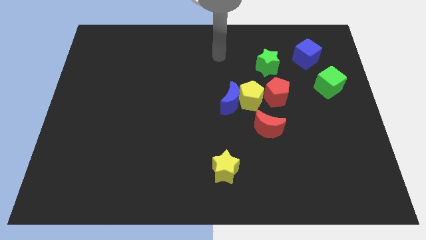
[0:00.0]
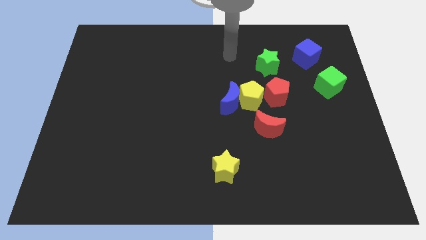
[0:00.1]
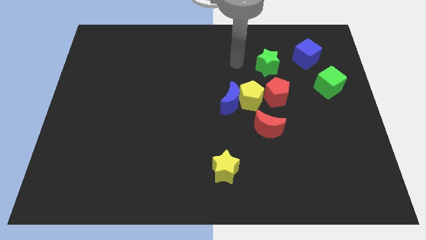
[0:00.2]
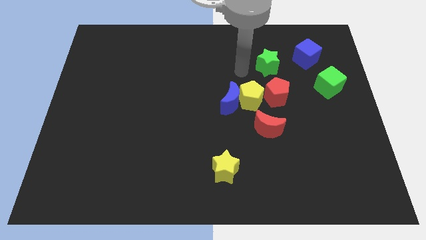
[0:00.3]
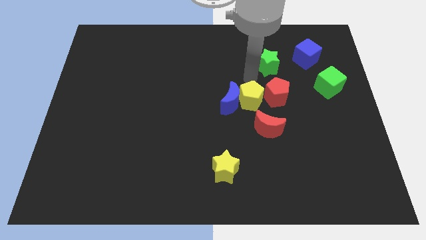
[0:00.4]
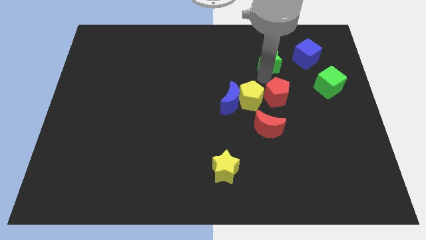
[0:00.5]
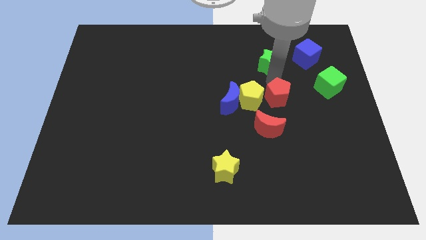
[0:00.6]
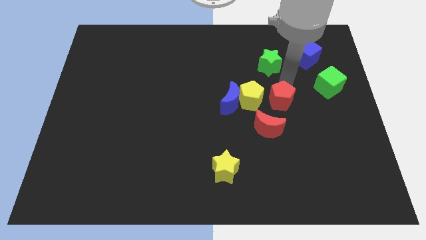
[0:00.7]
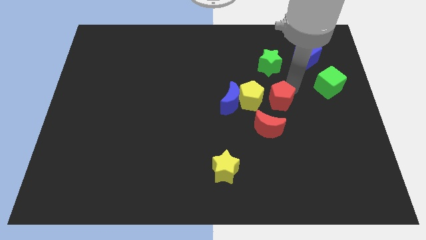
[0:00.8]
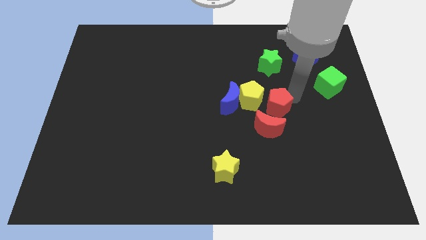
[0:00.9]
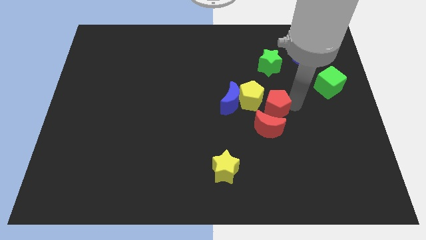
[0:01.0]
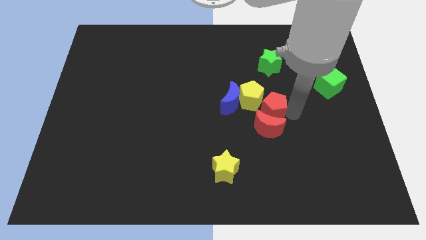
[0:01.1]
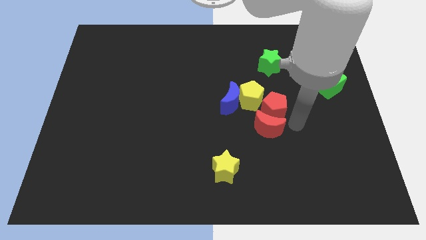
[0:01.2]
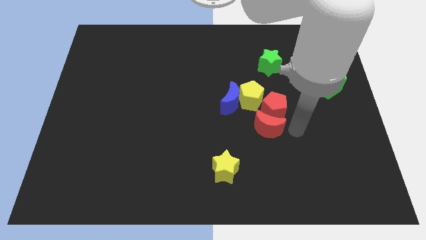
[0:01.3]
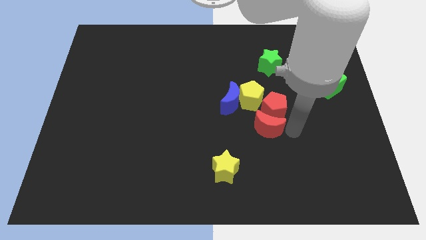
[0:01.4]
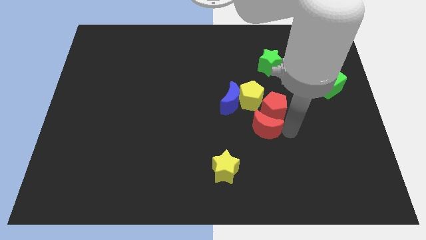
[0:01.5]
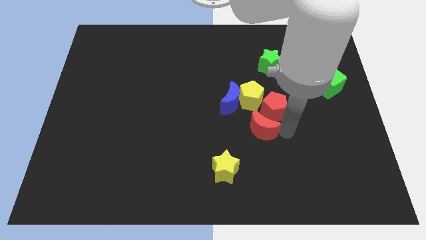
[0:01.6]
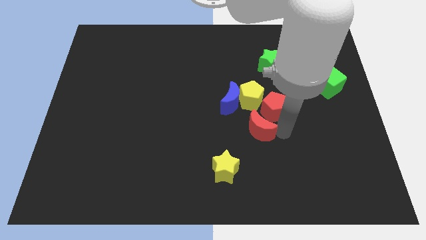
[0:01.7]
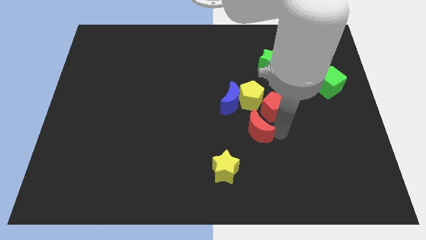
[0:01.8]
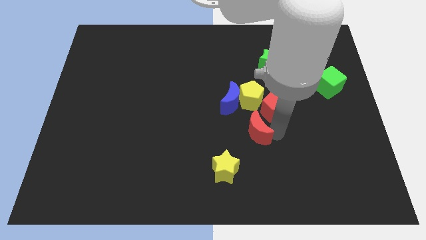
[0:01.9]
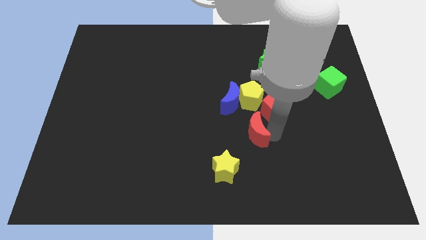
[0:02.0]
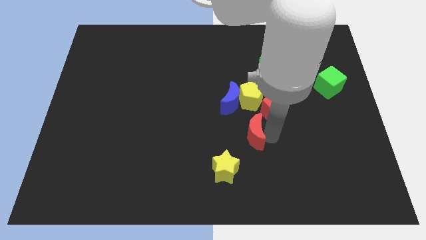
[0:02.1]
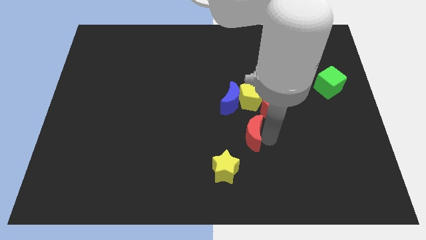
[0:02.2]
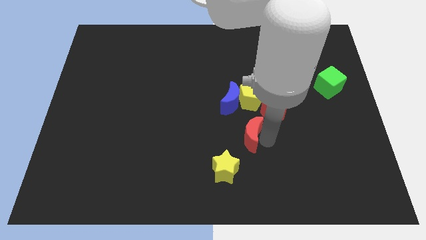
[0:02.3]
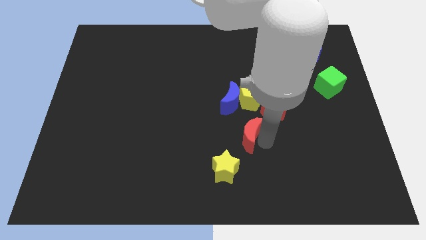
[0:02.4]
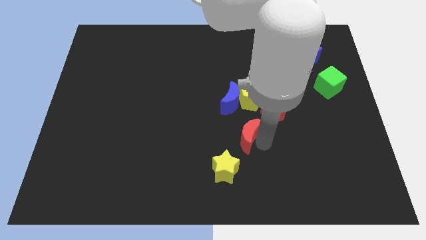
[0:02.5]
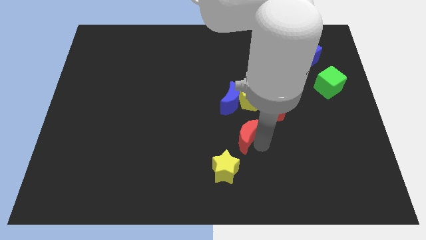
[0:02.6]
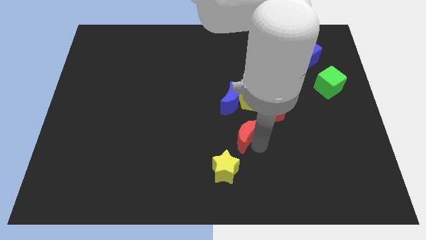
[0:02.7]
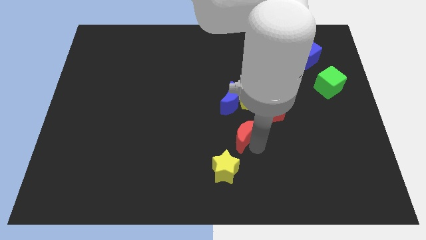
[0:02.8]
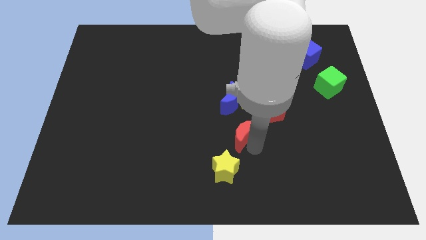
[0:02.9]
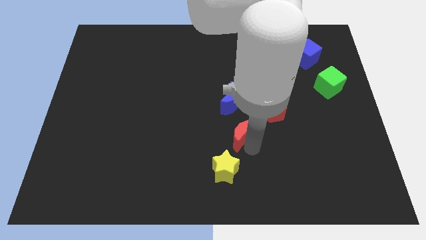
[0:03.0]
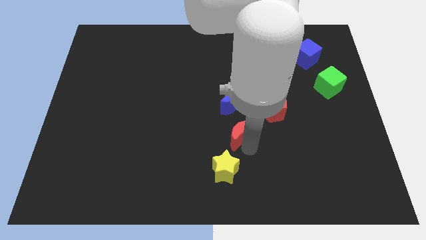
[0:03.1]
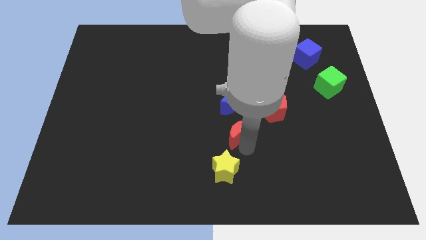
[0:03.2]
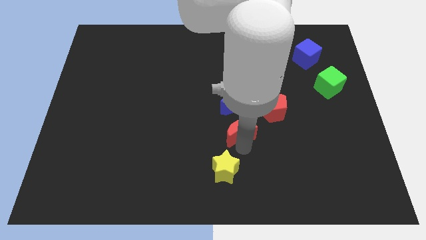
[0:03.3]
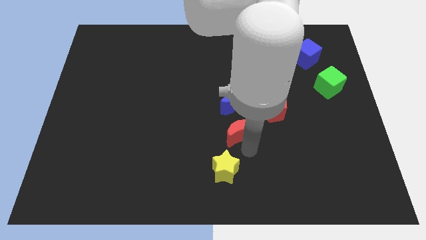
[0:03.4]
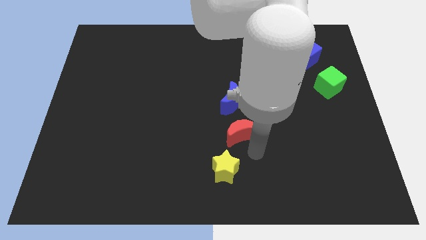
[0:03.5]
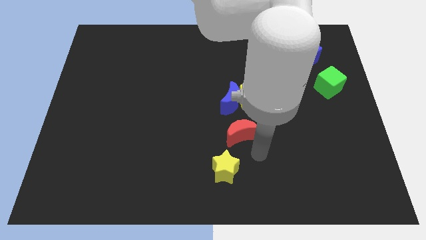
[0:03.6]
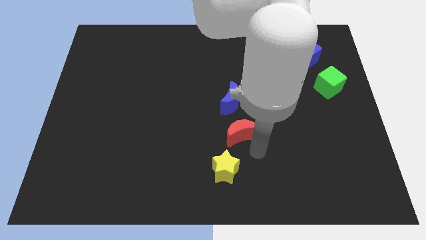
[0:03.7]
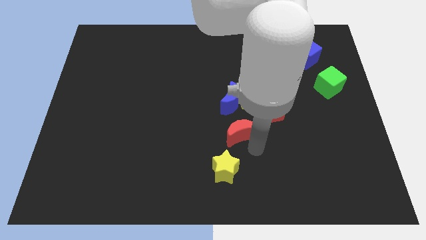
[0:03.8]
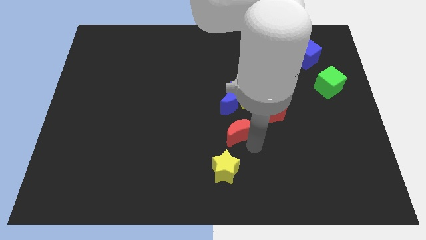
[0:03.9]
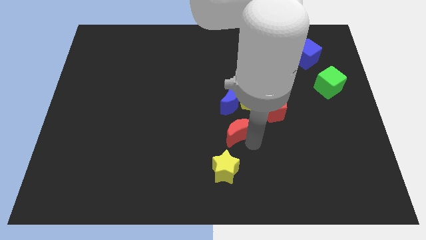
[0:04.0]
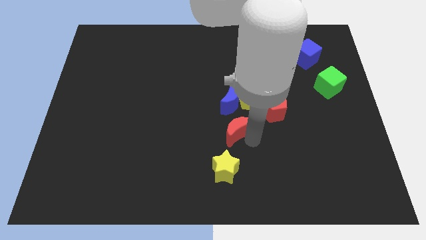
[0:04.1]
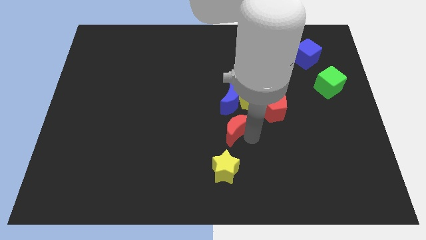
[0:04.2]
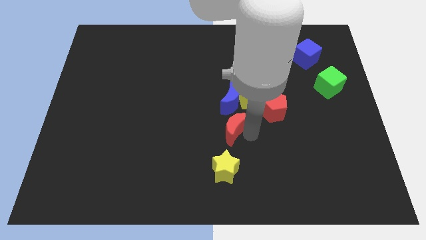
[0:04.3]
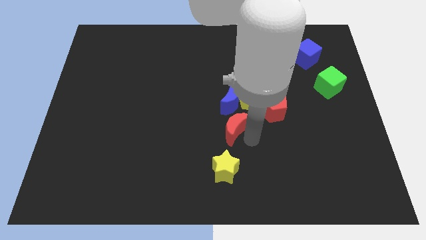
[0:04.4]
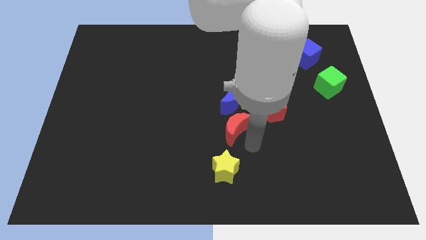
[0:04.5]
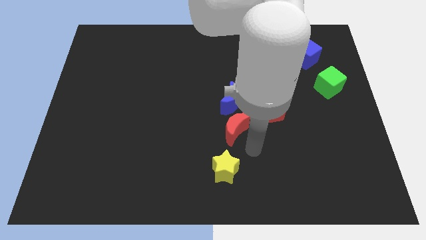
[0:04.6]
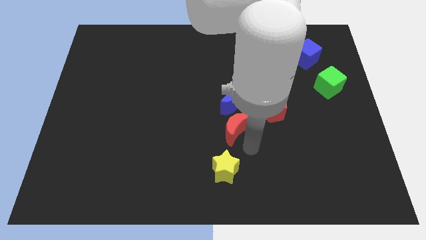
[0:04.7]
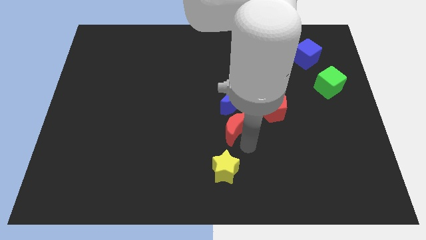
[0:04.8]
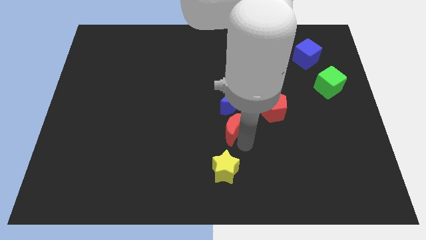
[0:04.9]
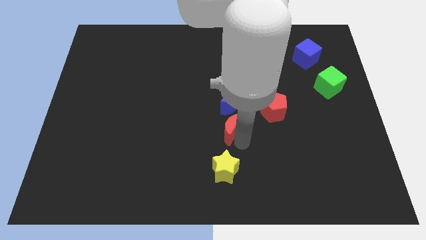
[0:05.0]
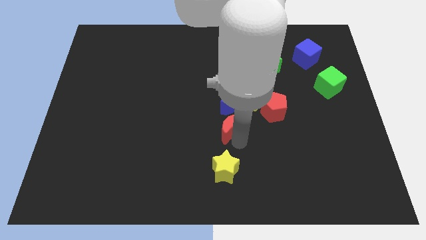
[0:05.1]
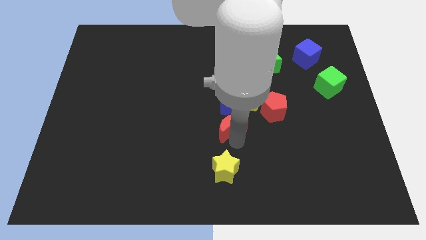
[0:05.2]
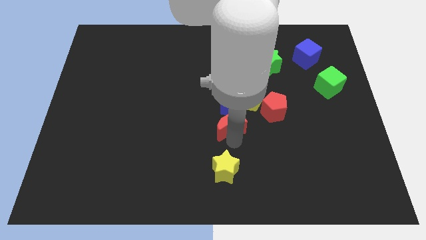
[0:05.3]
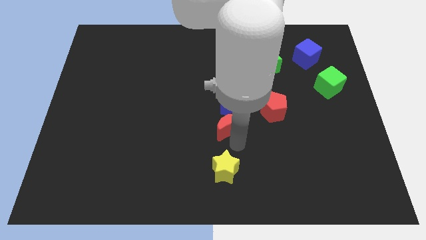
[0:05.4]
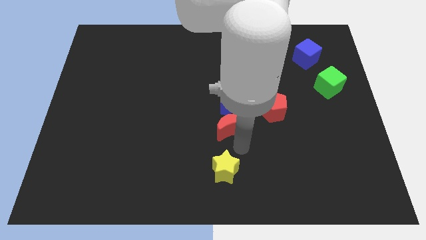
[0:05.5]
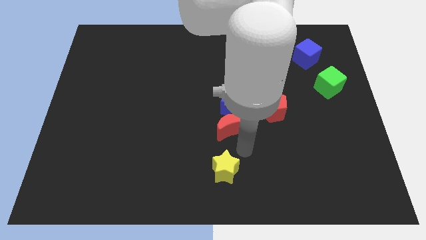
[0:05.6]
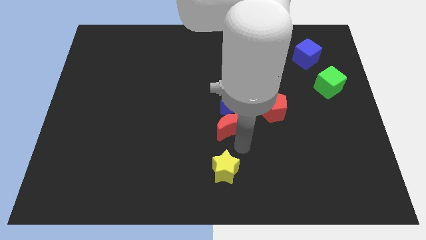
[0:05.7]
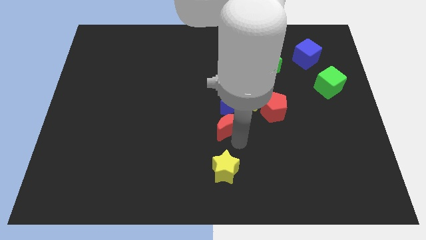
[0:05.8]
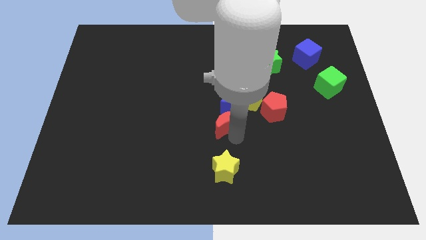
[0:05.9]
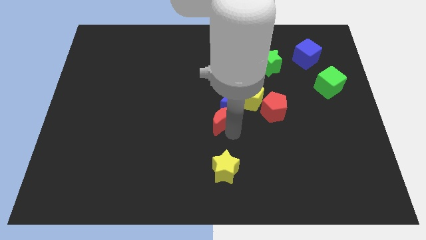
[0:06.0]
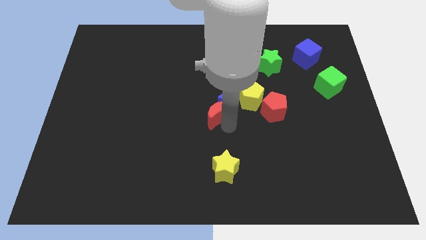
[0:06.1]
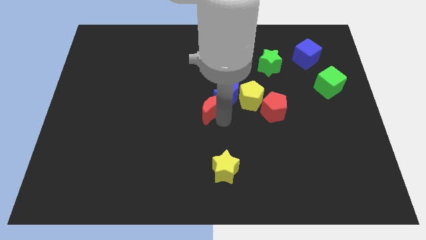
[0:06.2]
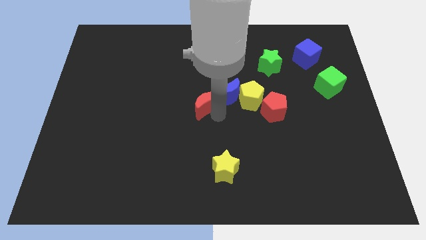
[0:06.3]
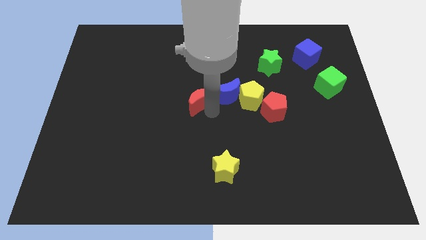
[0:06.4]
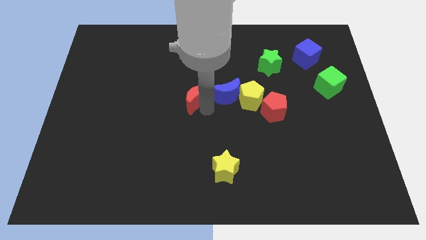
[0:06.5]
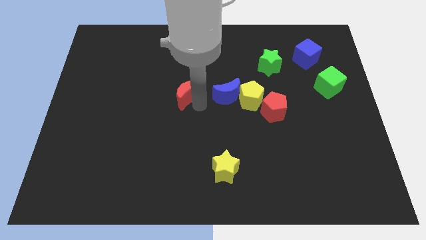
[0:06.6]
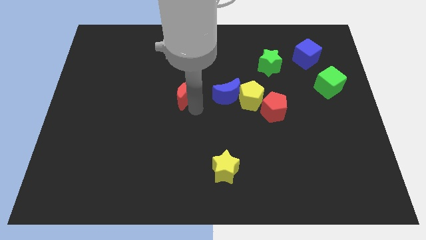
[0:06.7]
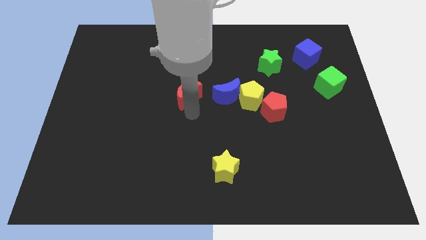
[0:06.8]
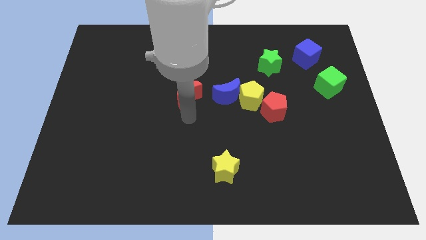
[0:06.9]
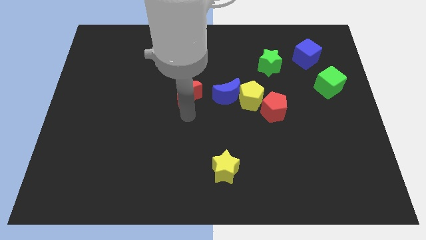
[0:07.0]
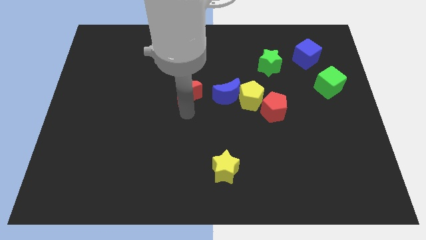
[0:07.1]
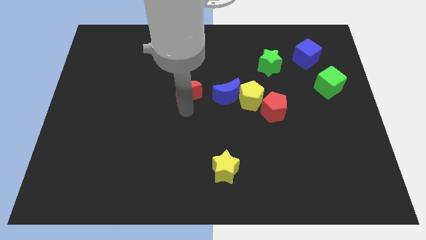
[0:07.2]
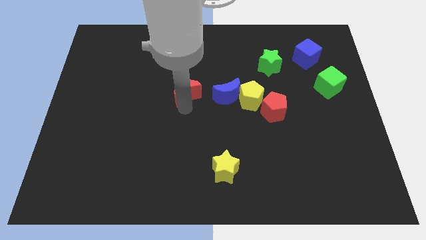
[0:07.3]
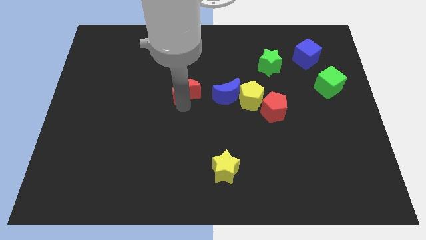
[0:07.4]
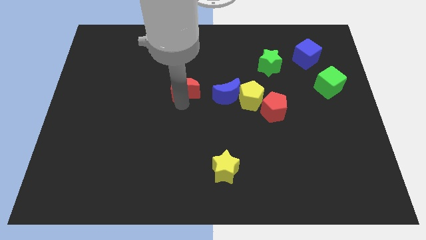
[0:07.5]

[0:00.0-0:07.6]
move the red moon upwards and then left

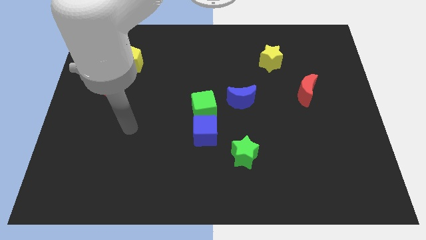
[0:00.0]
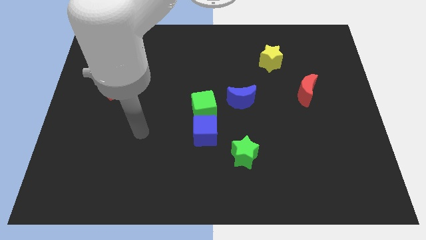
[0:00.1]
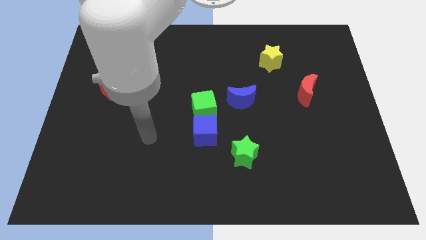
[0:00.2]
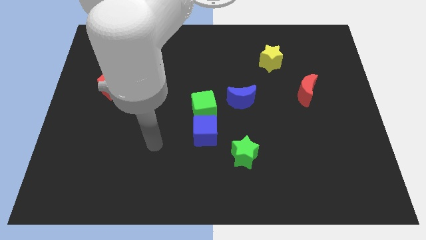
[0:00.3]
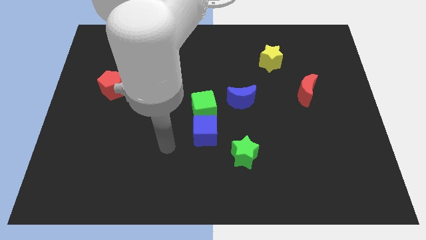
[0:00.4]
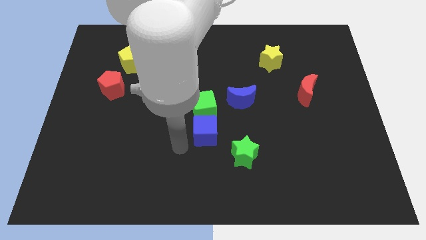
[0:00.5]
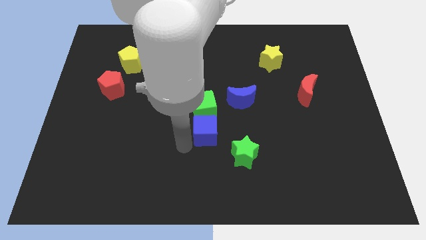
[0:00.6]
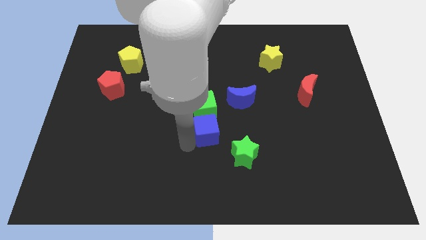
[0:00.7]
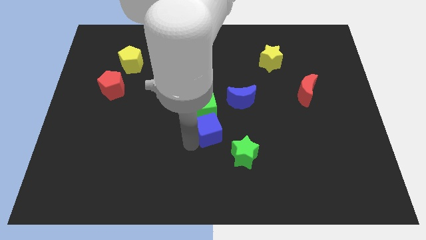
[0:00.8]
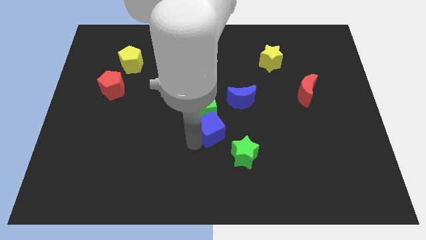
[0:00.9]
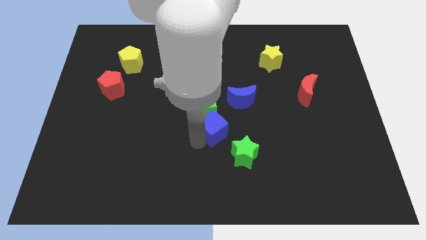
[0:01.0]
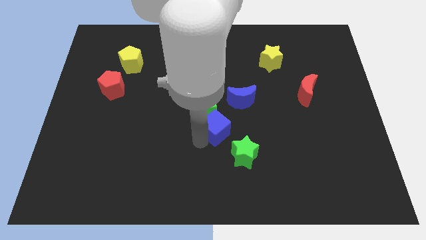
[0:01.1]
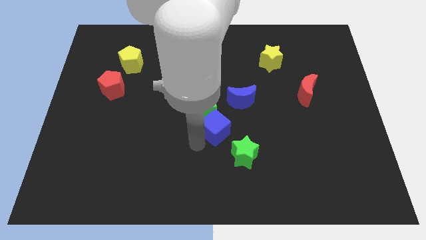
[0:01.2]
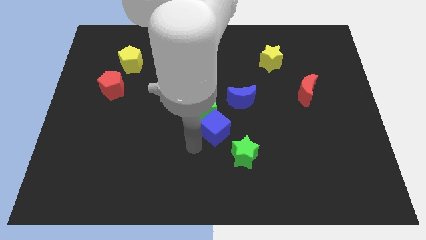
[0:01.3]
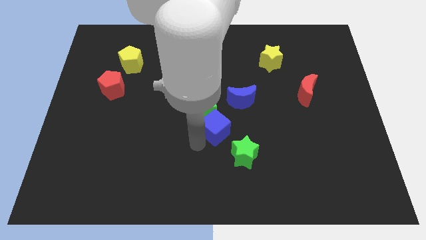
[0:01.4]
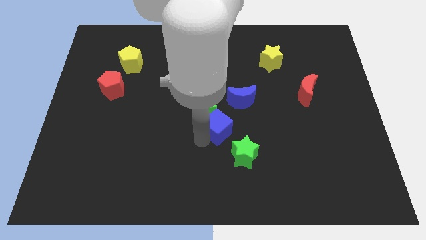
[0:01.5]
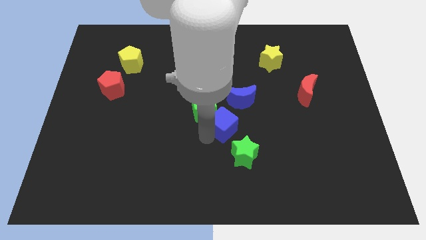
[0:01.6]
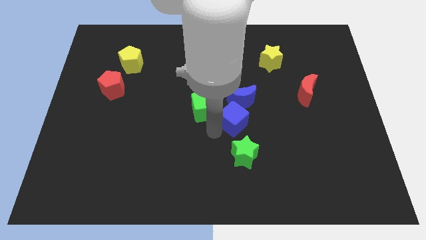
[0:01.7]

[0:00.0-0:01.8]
move the blue cube slightly upwards and to the right
